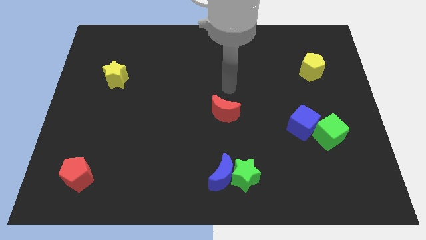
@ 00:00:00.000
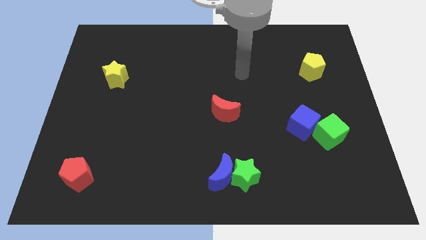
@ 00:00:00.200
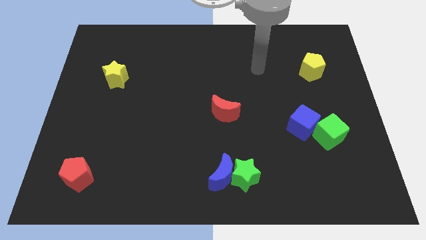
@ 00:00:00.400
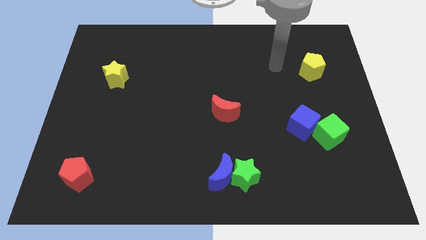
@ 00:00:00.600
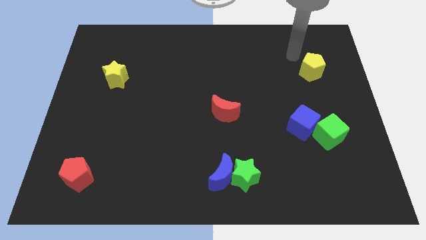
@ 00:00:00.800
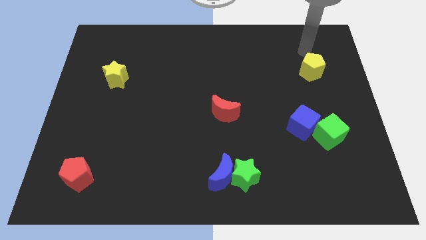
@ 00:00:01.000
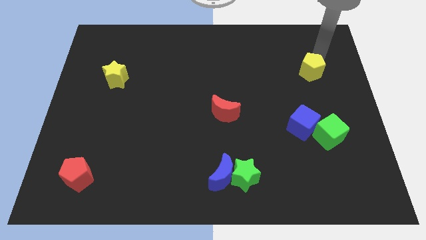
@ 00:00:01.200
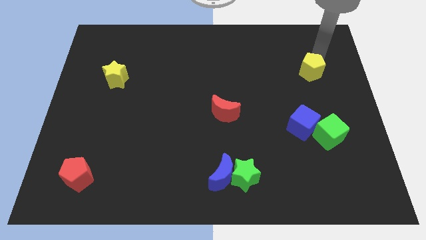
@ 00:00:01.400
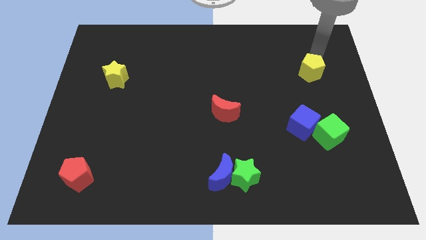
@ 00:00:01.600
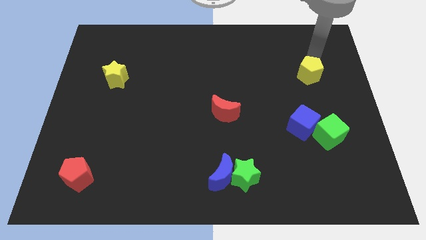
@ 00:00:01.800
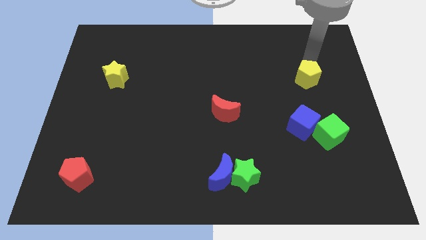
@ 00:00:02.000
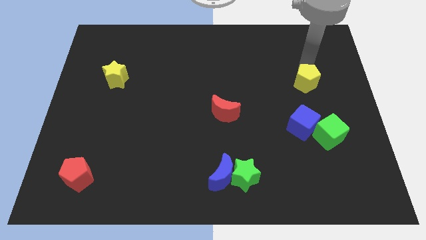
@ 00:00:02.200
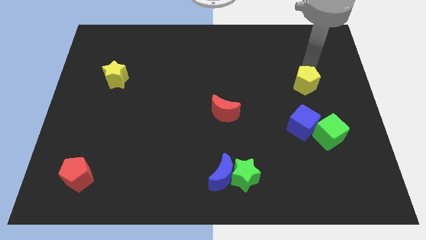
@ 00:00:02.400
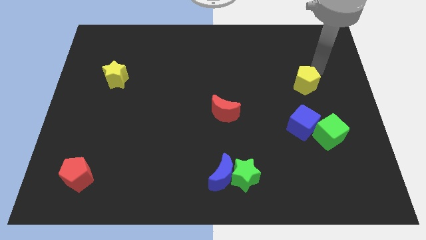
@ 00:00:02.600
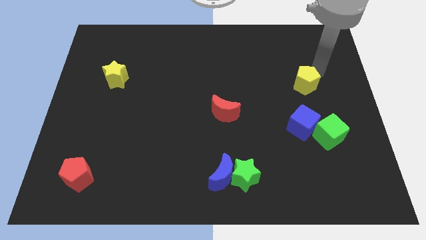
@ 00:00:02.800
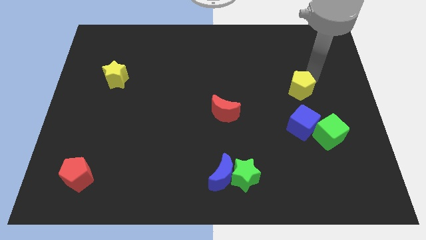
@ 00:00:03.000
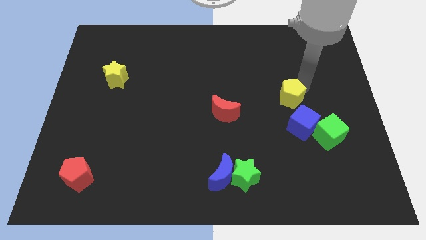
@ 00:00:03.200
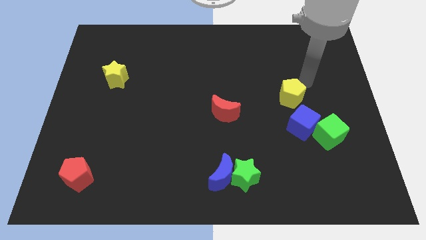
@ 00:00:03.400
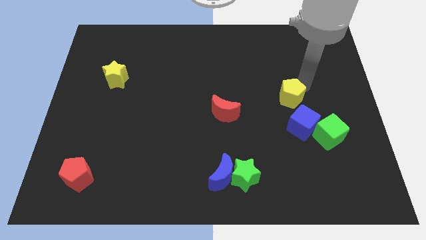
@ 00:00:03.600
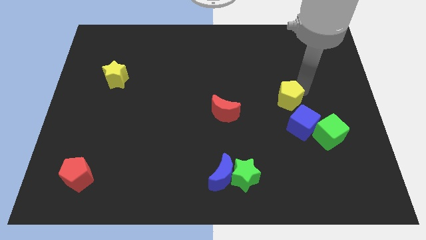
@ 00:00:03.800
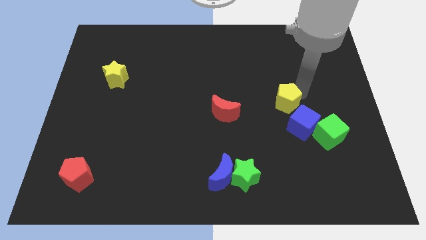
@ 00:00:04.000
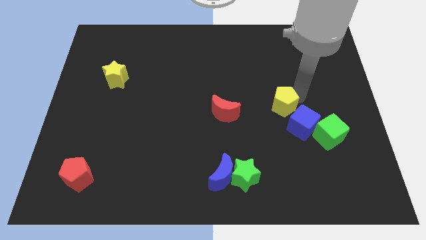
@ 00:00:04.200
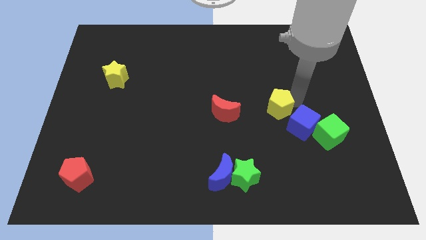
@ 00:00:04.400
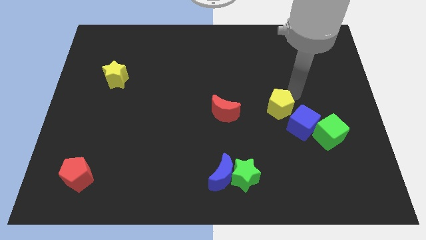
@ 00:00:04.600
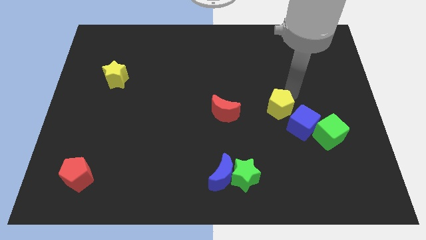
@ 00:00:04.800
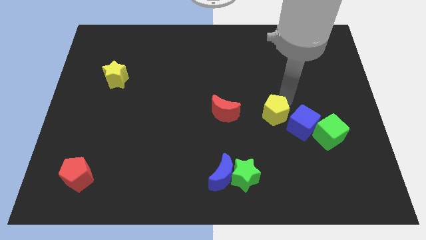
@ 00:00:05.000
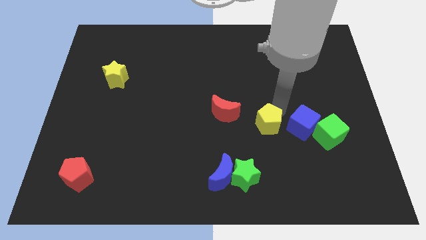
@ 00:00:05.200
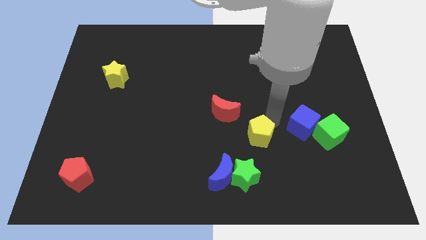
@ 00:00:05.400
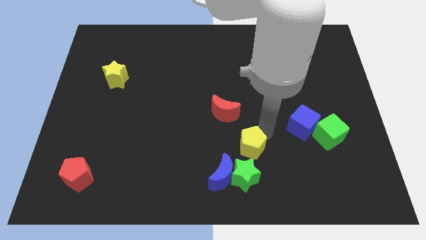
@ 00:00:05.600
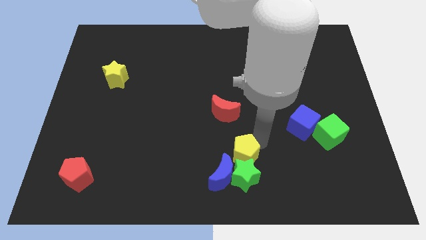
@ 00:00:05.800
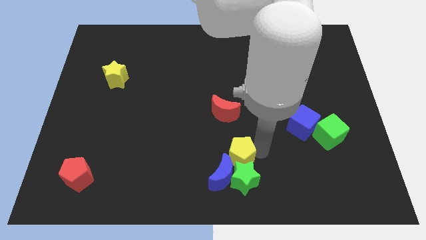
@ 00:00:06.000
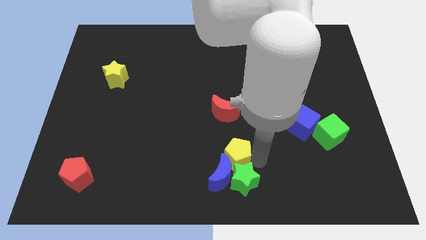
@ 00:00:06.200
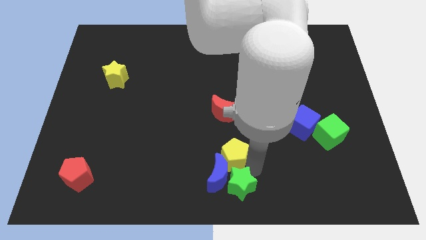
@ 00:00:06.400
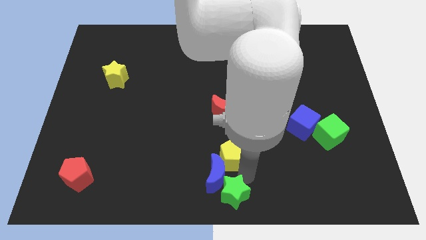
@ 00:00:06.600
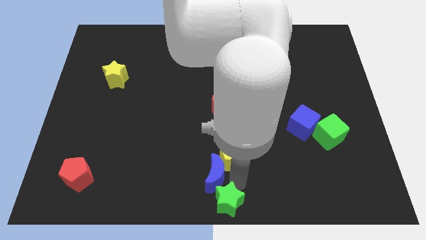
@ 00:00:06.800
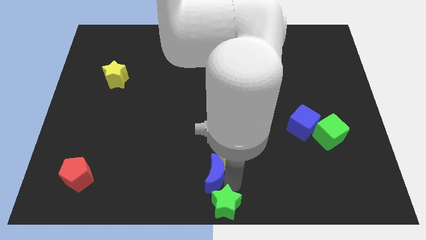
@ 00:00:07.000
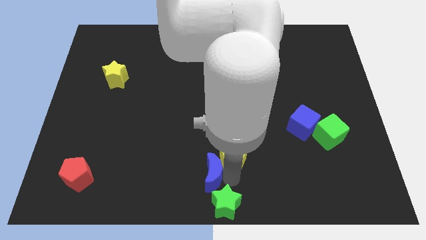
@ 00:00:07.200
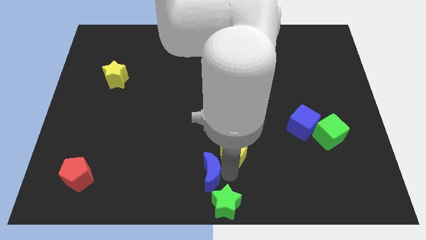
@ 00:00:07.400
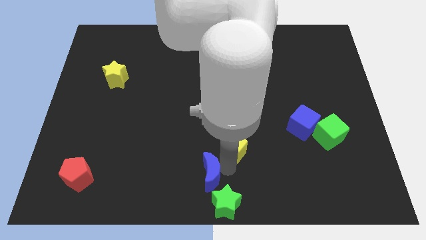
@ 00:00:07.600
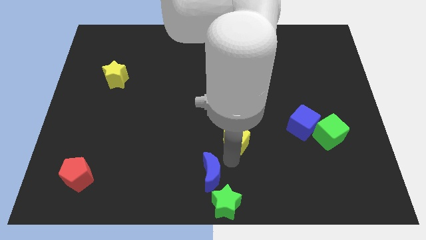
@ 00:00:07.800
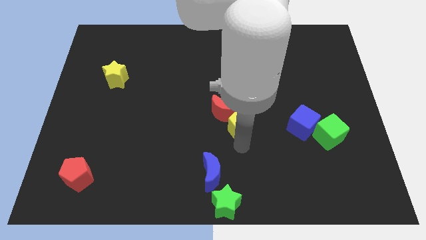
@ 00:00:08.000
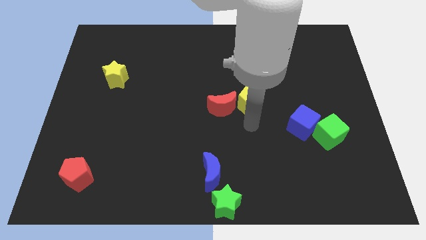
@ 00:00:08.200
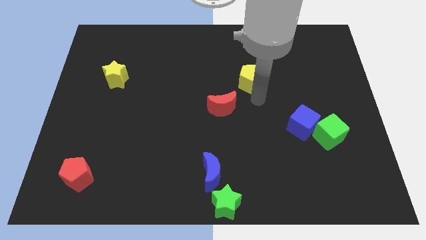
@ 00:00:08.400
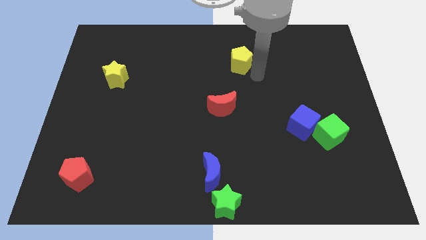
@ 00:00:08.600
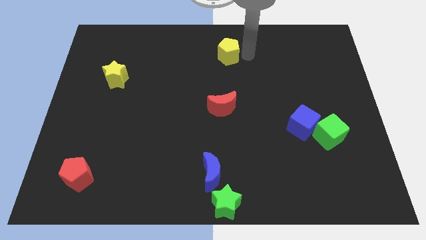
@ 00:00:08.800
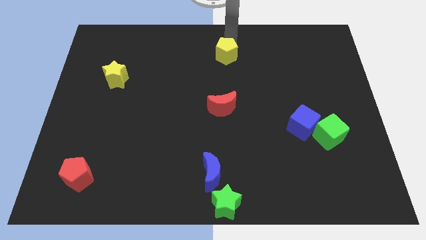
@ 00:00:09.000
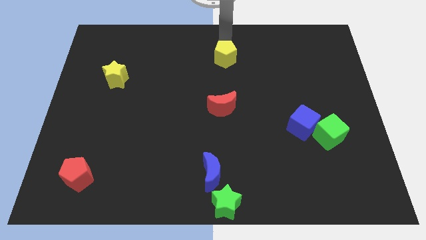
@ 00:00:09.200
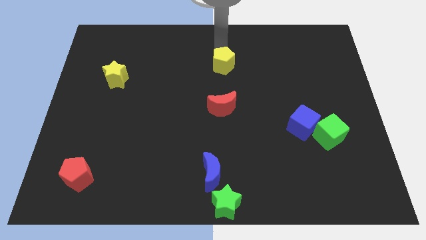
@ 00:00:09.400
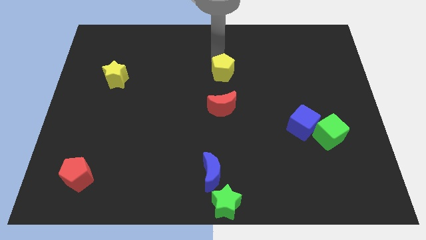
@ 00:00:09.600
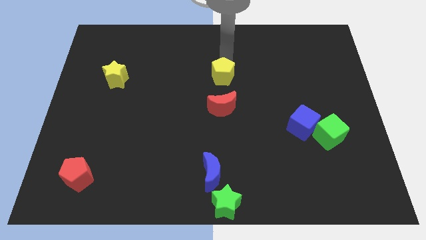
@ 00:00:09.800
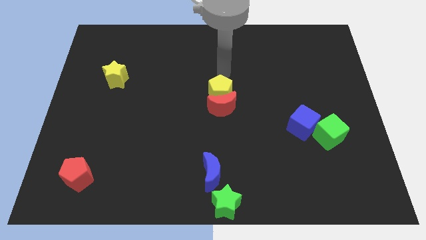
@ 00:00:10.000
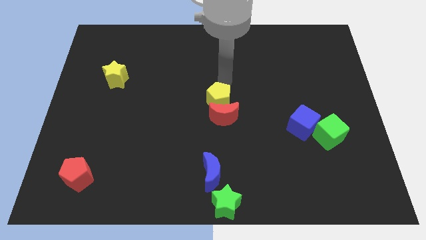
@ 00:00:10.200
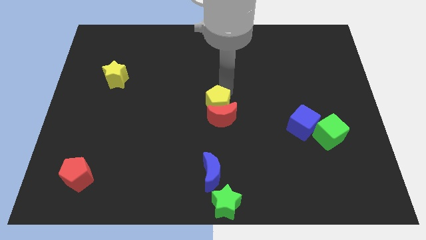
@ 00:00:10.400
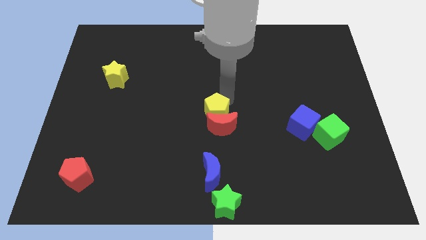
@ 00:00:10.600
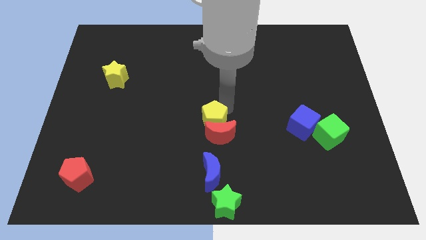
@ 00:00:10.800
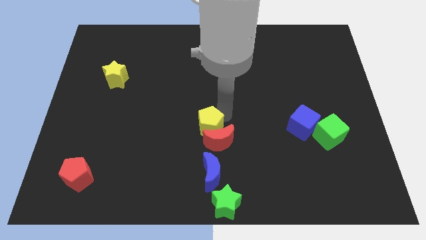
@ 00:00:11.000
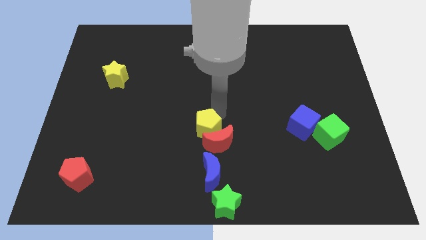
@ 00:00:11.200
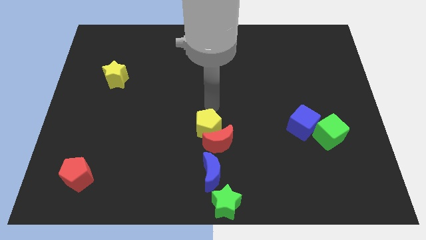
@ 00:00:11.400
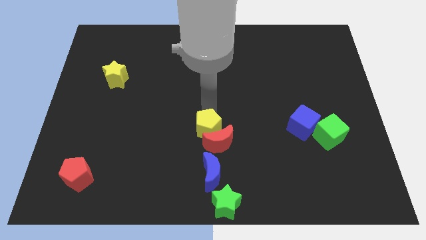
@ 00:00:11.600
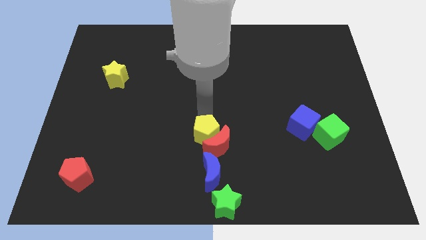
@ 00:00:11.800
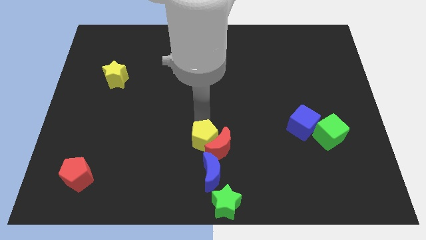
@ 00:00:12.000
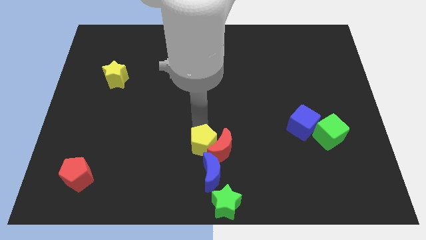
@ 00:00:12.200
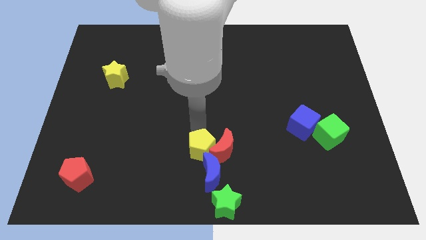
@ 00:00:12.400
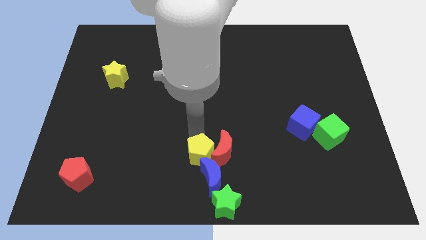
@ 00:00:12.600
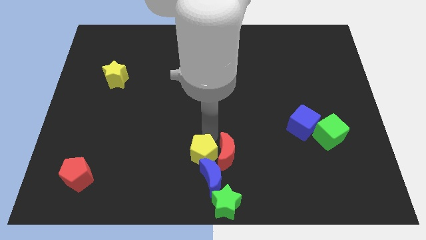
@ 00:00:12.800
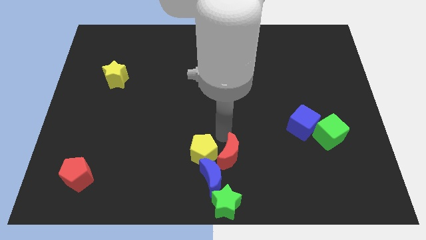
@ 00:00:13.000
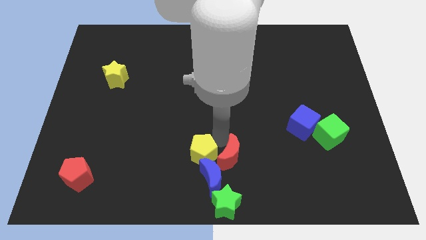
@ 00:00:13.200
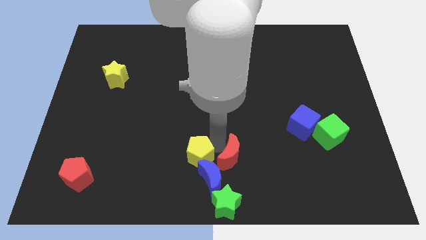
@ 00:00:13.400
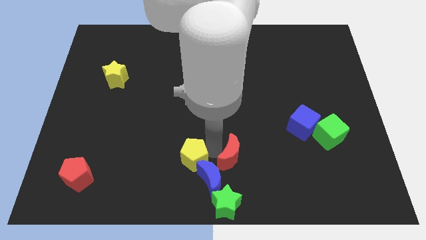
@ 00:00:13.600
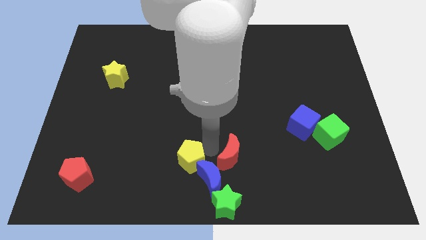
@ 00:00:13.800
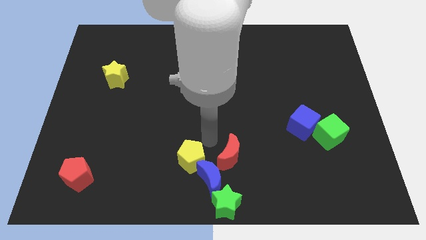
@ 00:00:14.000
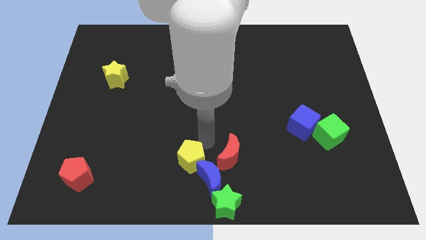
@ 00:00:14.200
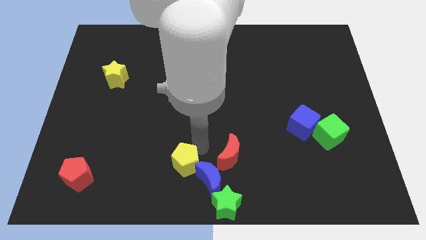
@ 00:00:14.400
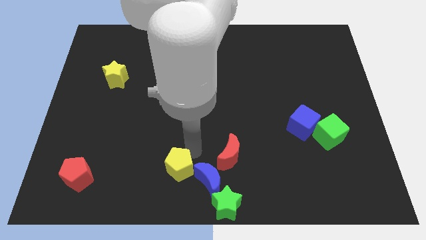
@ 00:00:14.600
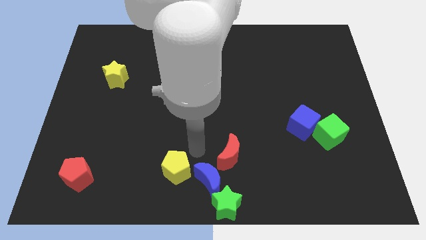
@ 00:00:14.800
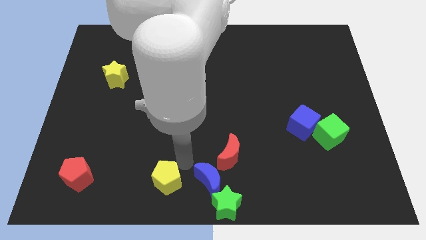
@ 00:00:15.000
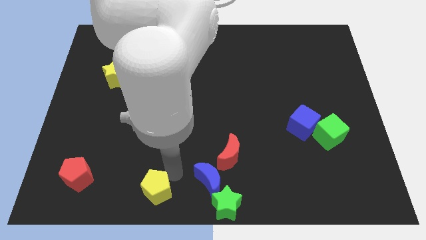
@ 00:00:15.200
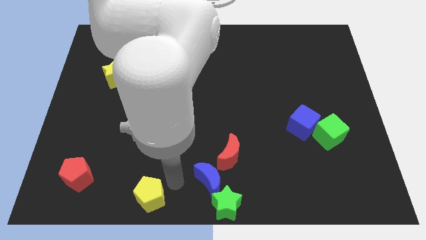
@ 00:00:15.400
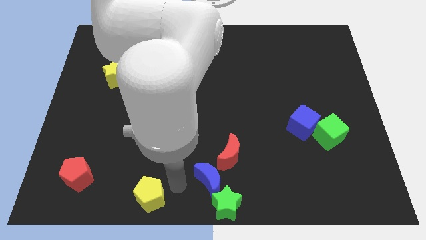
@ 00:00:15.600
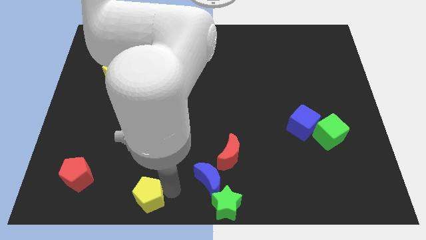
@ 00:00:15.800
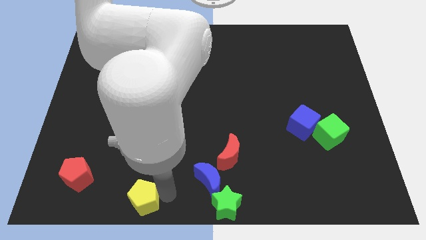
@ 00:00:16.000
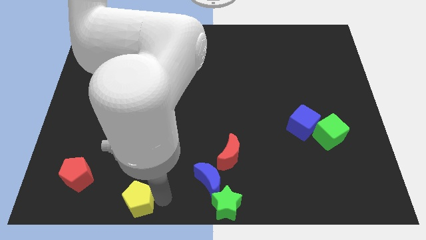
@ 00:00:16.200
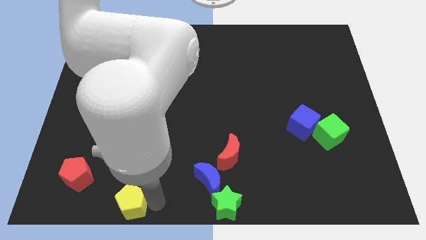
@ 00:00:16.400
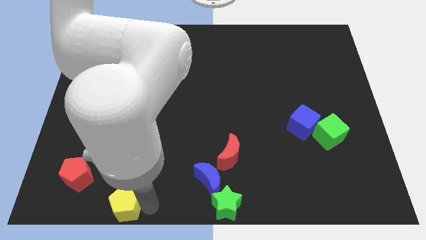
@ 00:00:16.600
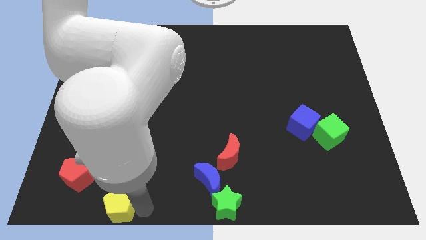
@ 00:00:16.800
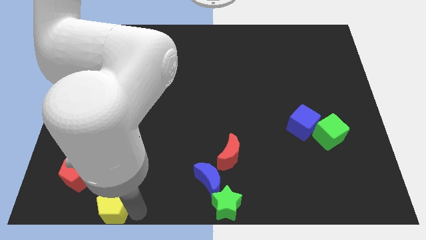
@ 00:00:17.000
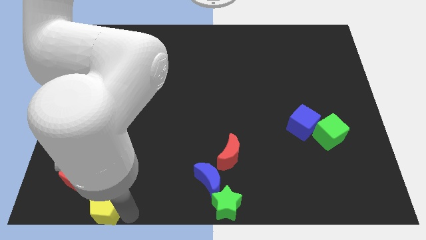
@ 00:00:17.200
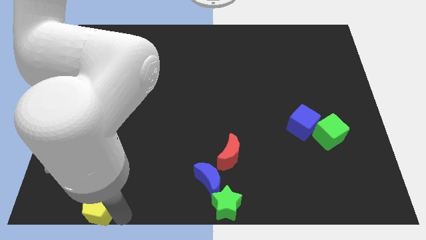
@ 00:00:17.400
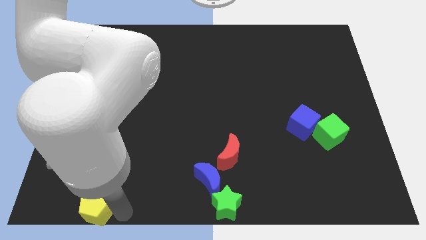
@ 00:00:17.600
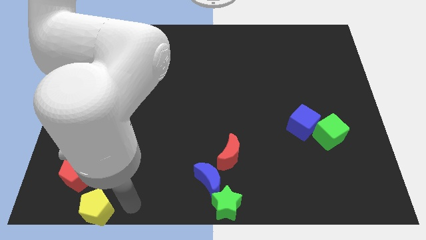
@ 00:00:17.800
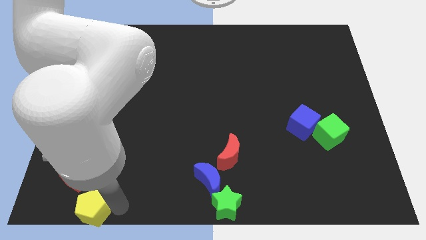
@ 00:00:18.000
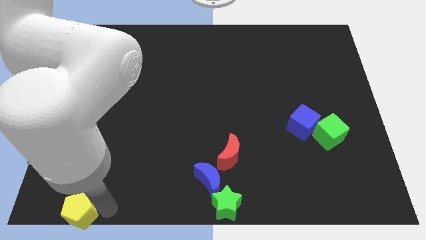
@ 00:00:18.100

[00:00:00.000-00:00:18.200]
slide the yellow pentagon to the lower left corner
